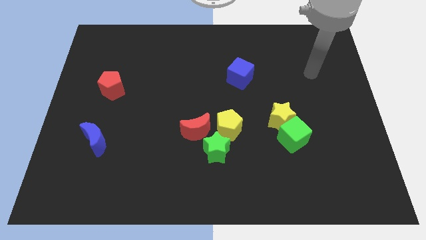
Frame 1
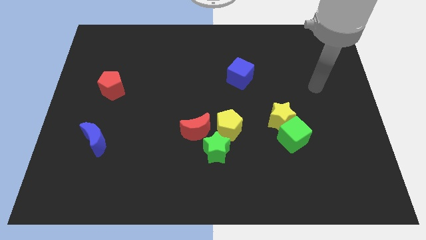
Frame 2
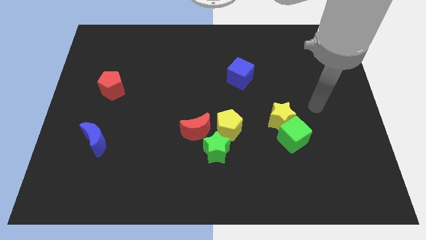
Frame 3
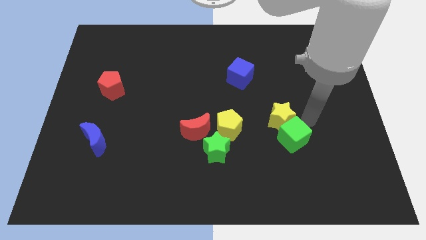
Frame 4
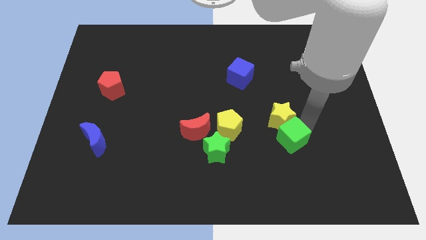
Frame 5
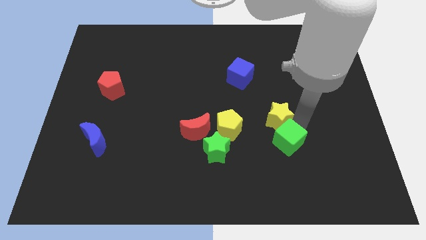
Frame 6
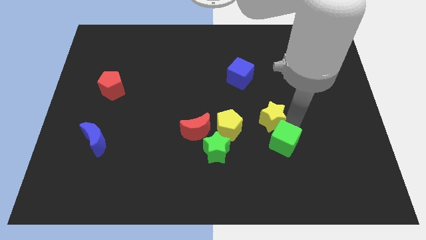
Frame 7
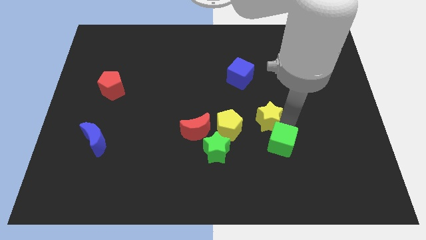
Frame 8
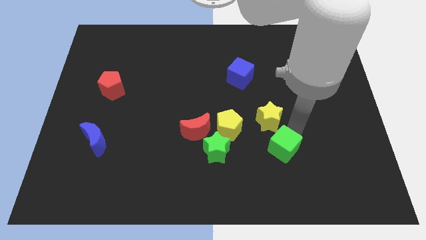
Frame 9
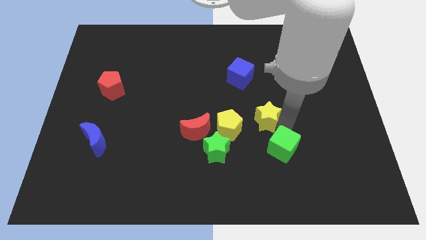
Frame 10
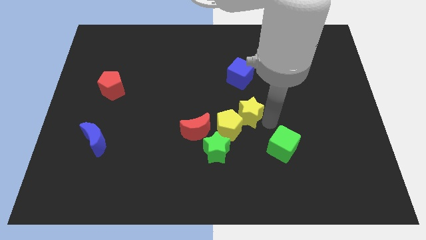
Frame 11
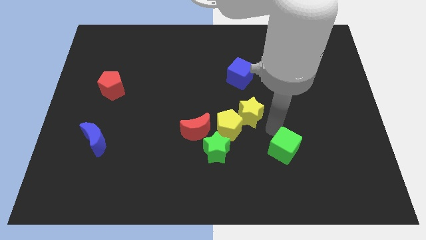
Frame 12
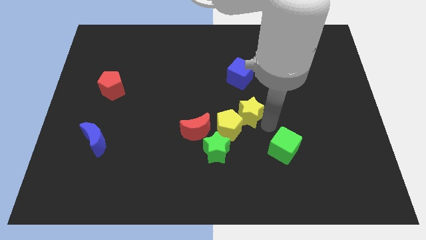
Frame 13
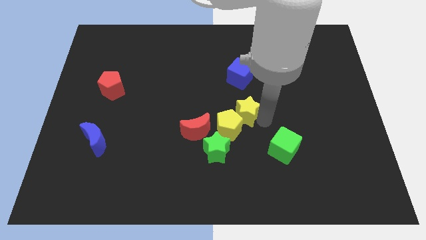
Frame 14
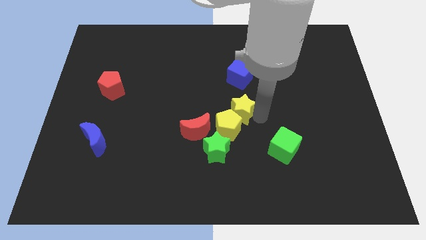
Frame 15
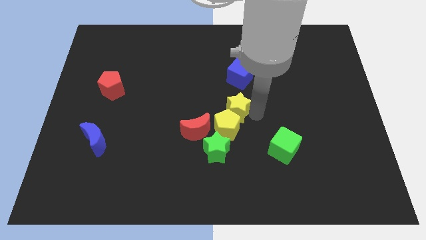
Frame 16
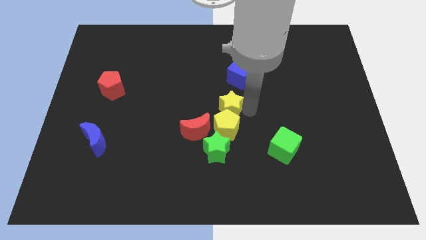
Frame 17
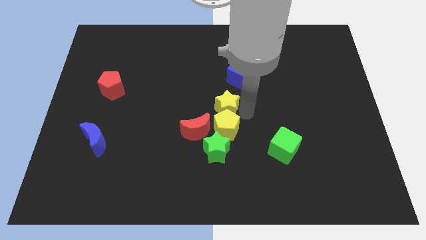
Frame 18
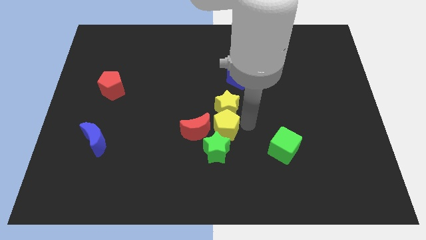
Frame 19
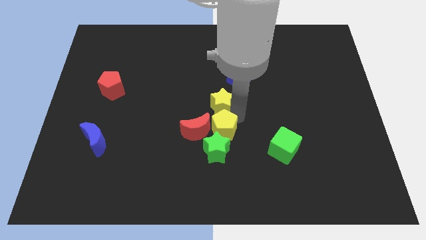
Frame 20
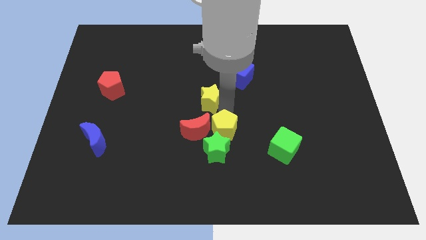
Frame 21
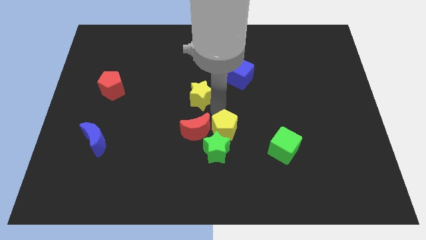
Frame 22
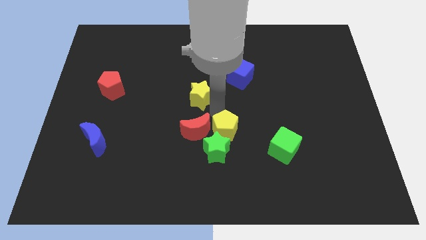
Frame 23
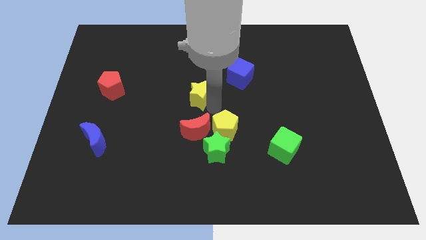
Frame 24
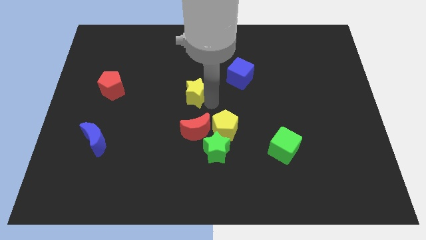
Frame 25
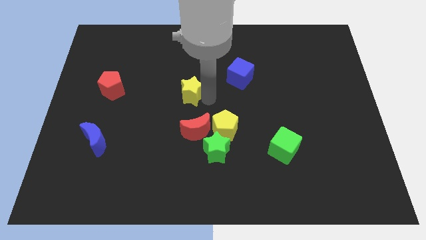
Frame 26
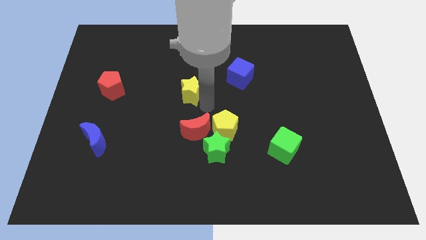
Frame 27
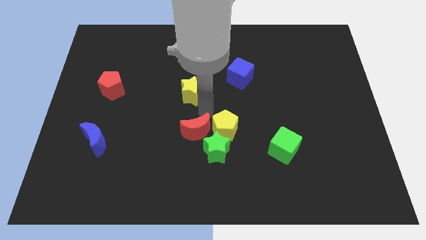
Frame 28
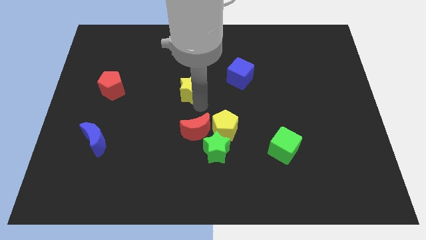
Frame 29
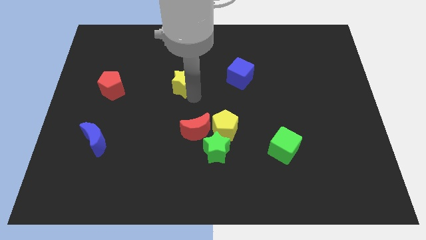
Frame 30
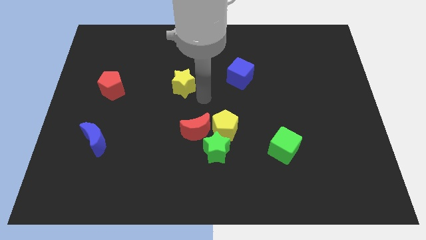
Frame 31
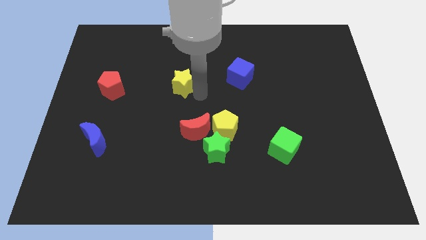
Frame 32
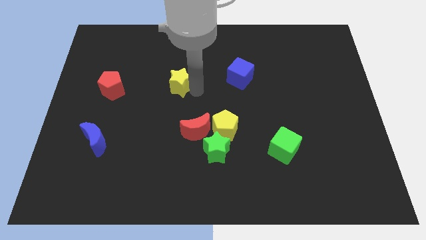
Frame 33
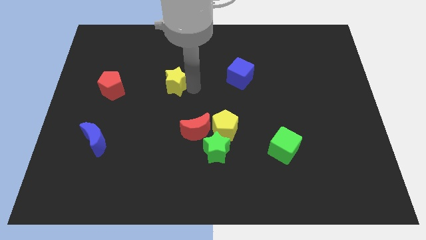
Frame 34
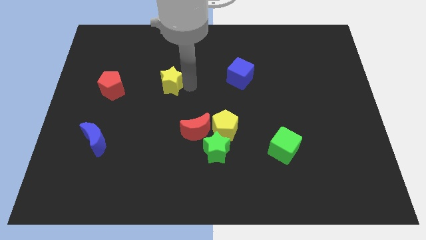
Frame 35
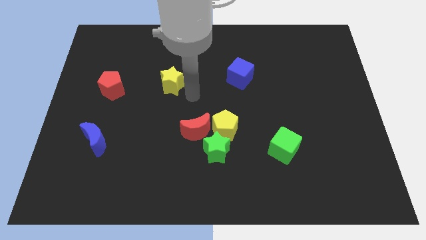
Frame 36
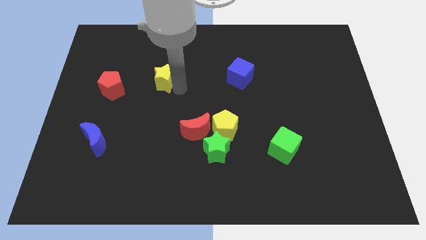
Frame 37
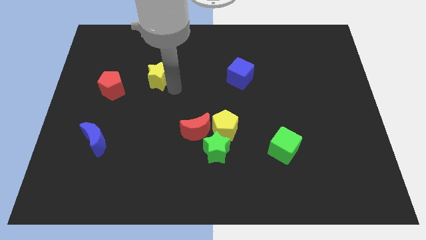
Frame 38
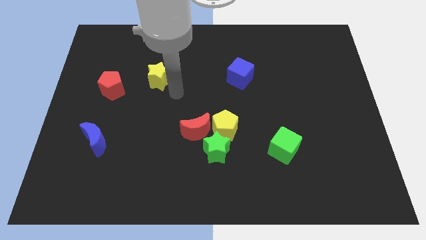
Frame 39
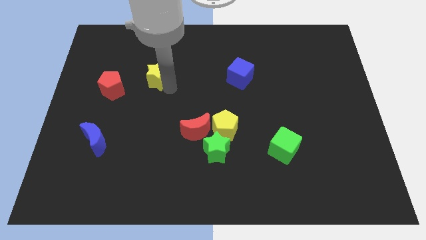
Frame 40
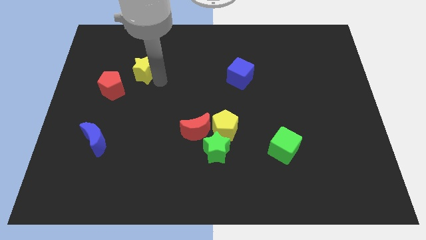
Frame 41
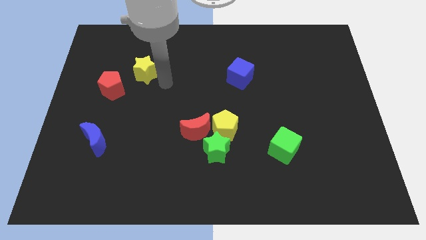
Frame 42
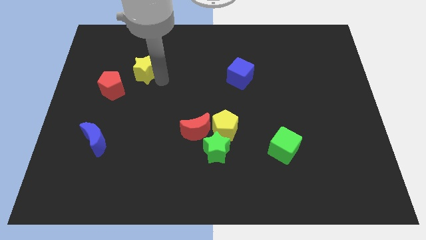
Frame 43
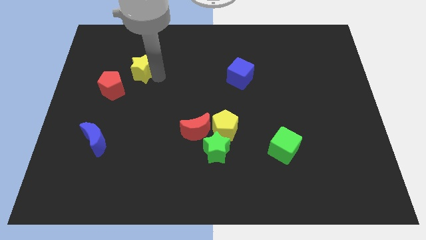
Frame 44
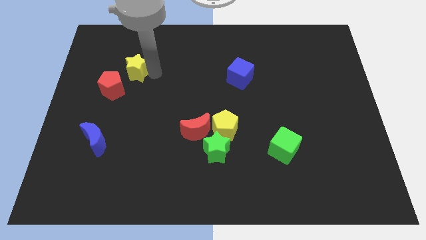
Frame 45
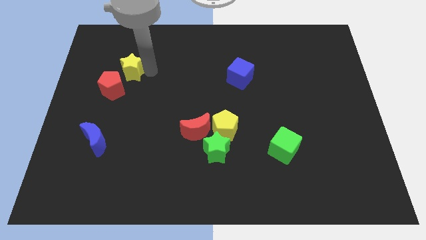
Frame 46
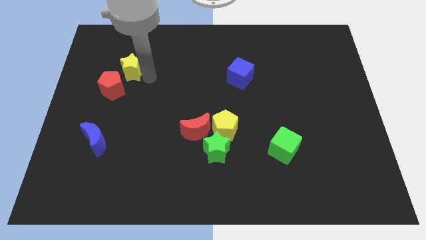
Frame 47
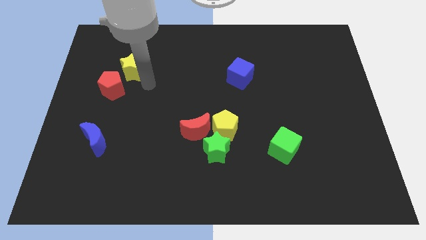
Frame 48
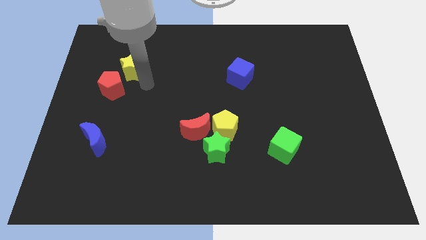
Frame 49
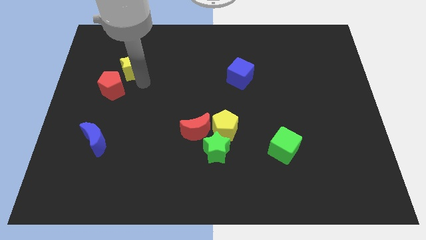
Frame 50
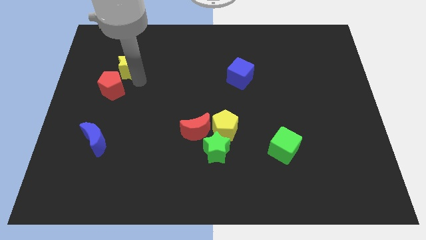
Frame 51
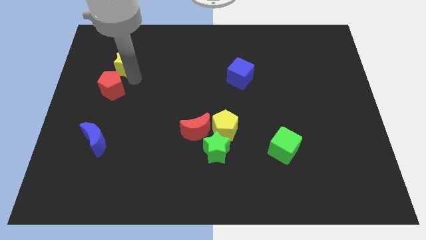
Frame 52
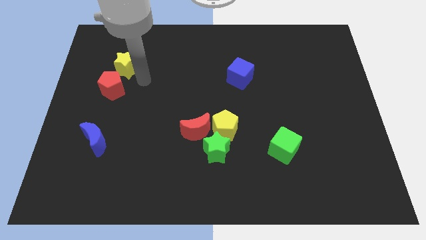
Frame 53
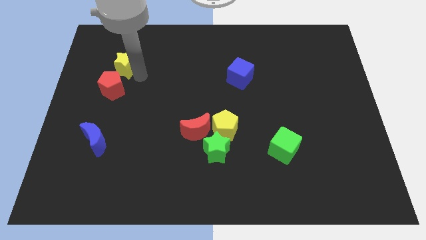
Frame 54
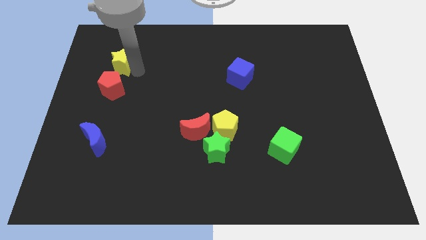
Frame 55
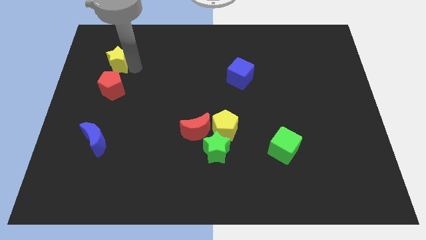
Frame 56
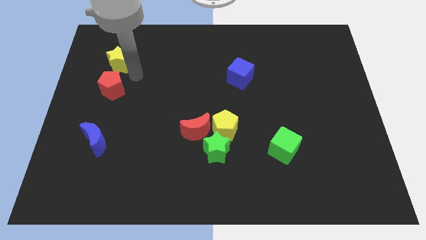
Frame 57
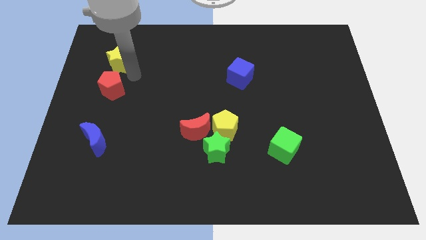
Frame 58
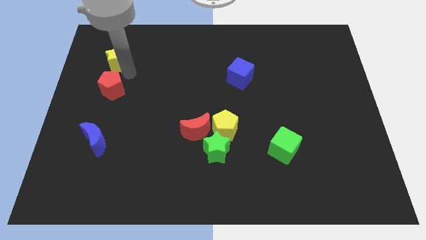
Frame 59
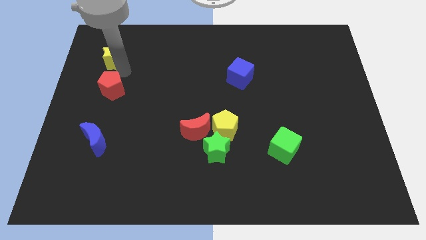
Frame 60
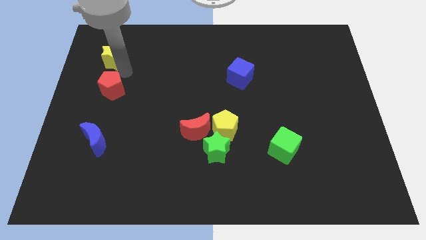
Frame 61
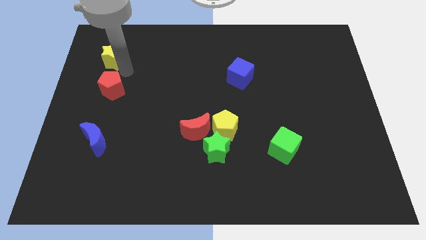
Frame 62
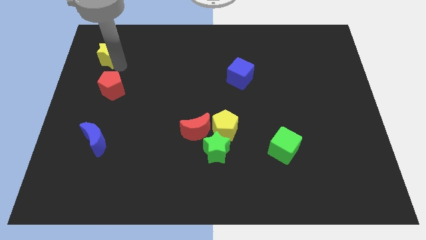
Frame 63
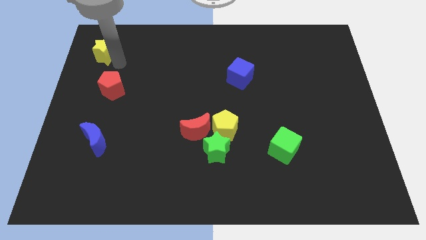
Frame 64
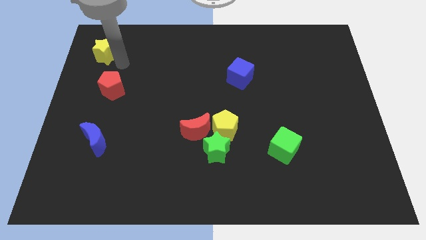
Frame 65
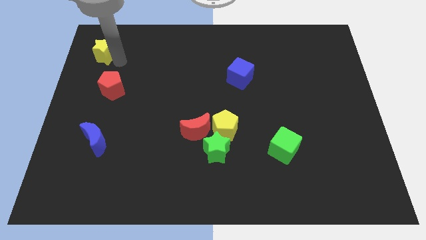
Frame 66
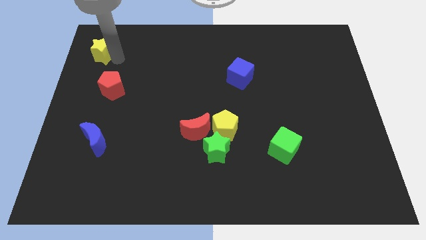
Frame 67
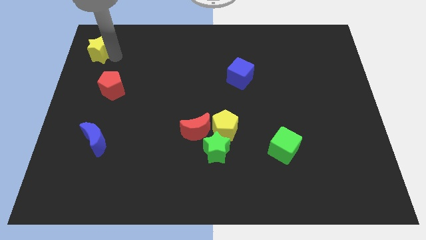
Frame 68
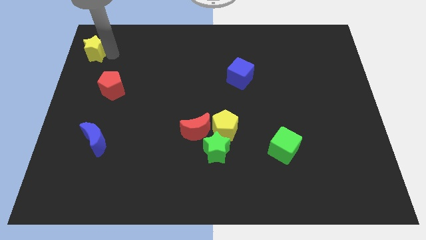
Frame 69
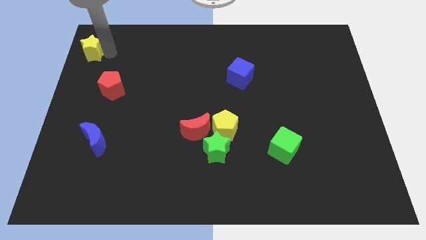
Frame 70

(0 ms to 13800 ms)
slide the yellow star to the top left of the board
